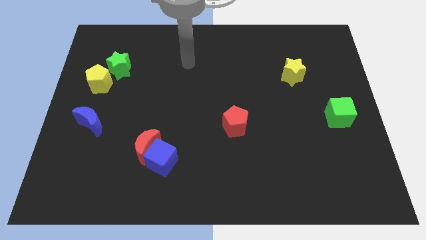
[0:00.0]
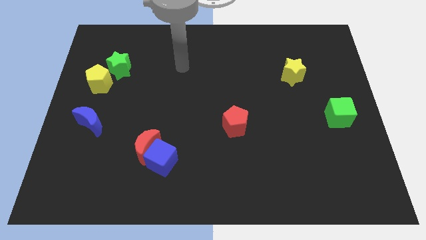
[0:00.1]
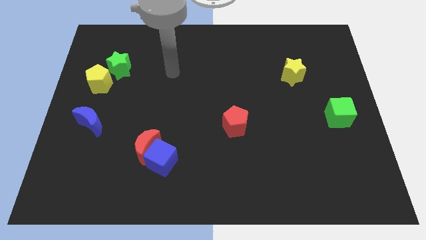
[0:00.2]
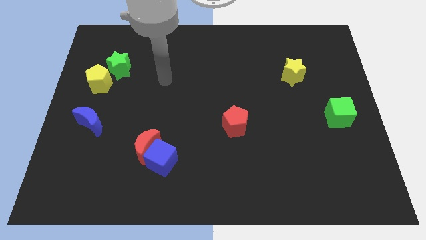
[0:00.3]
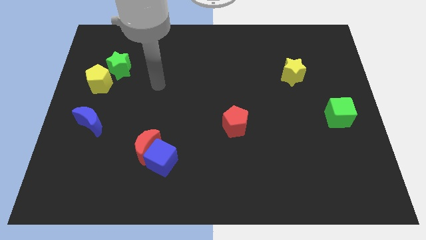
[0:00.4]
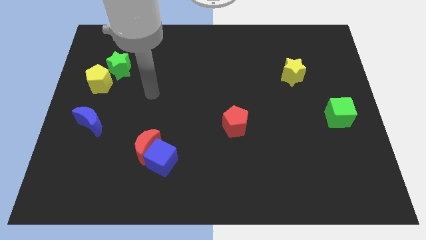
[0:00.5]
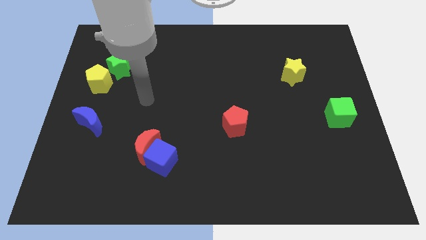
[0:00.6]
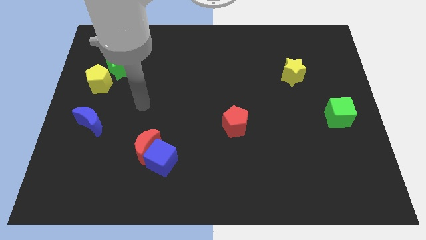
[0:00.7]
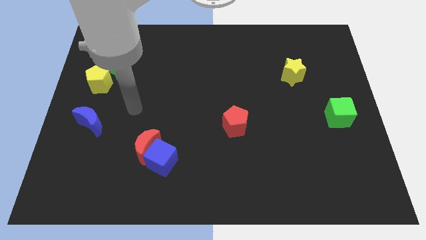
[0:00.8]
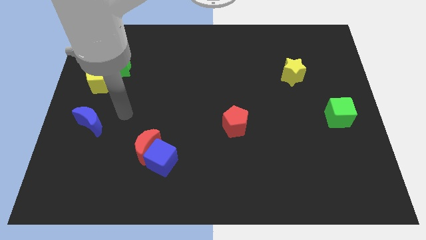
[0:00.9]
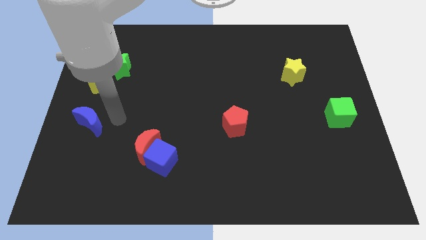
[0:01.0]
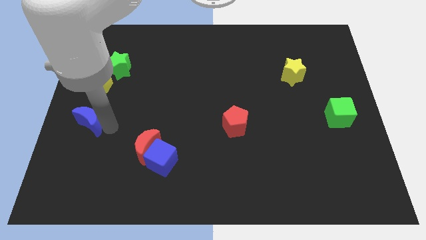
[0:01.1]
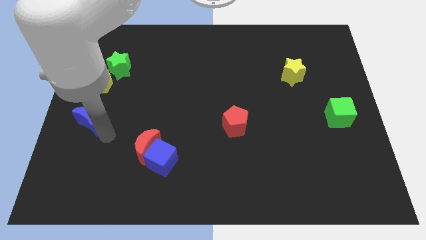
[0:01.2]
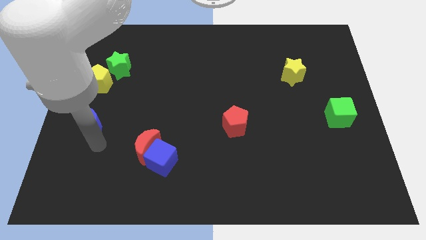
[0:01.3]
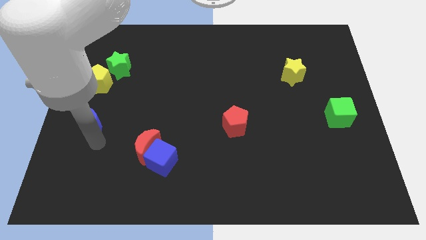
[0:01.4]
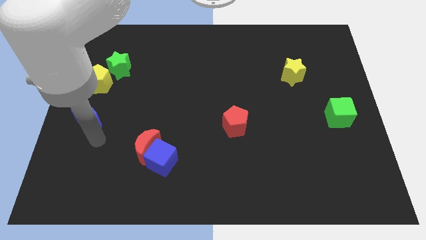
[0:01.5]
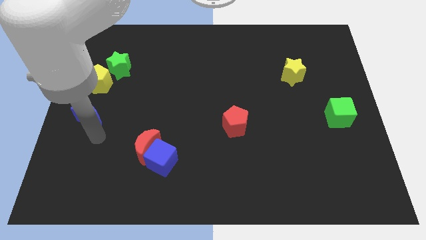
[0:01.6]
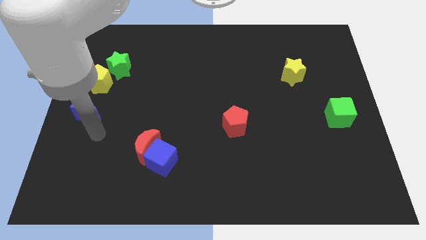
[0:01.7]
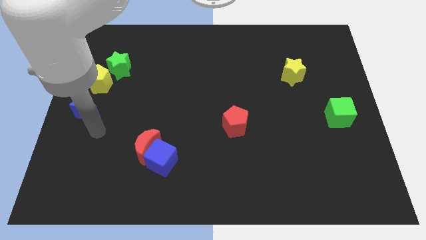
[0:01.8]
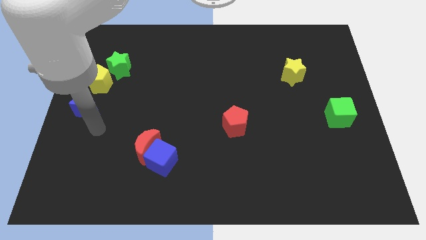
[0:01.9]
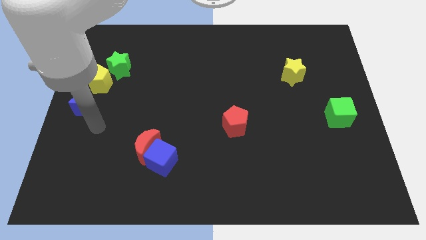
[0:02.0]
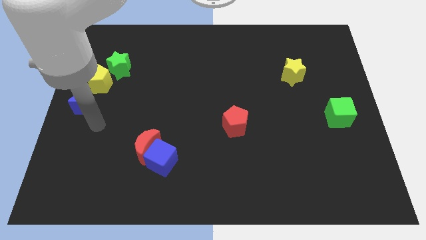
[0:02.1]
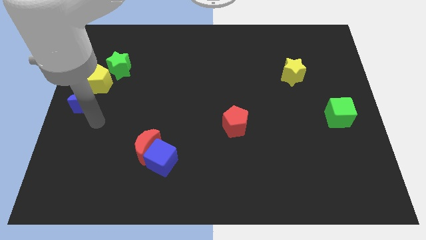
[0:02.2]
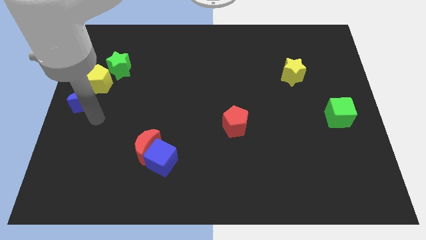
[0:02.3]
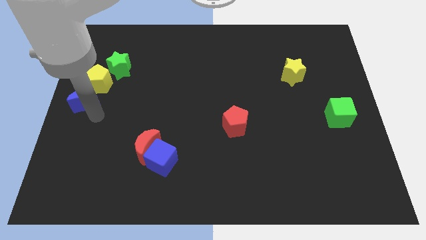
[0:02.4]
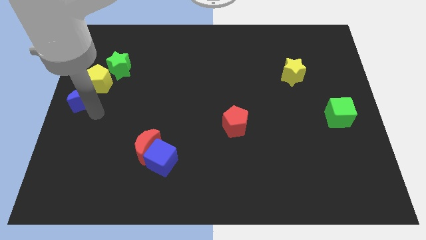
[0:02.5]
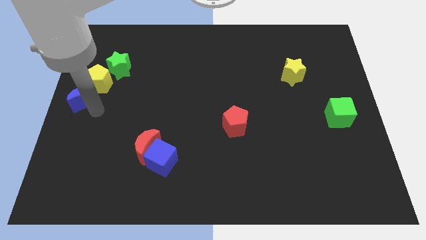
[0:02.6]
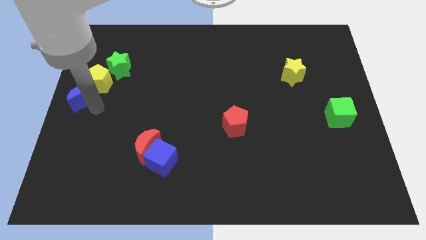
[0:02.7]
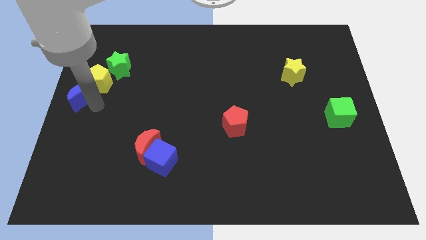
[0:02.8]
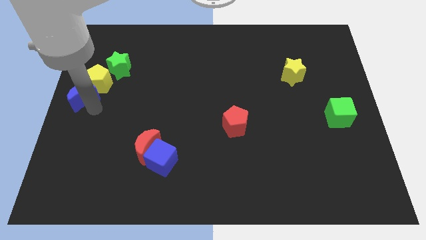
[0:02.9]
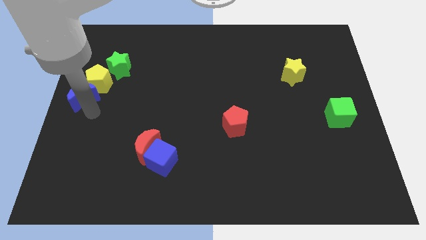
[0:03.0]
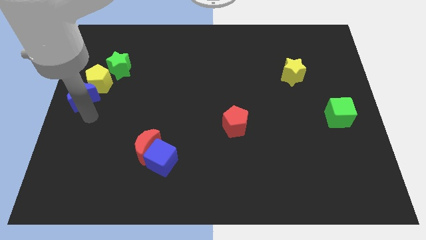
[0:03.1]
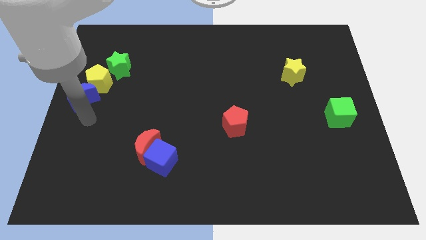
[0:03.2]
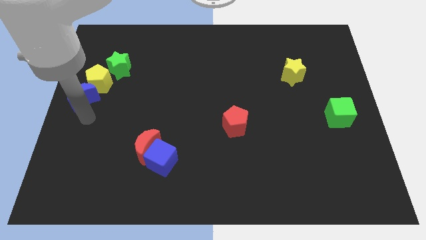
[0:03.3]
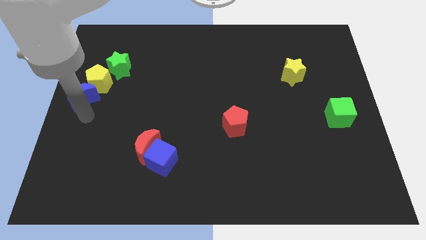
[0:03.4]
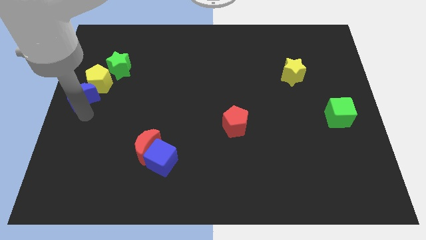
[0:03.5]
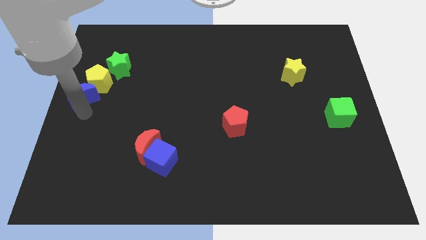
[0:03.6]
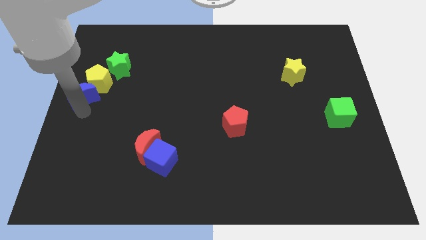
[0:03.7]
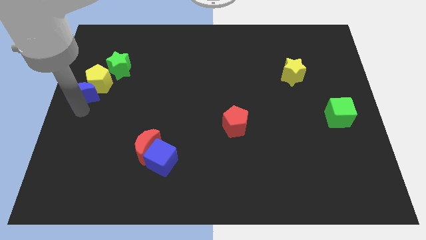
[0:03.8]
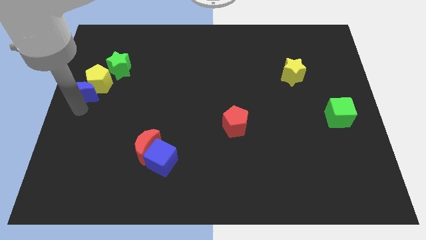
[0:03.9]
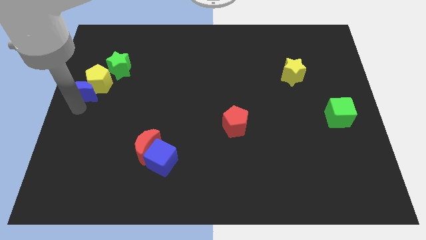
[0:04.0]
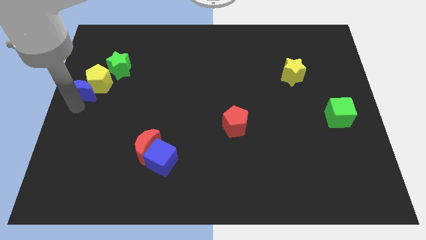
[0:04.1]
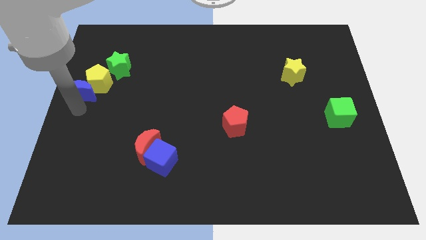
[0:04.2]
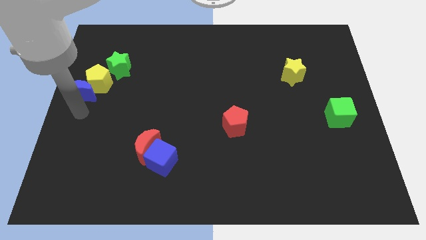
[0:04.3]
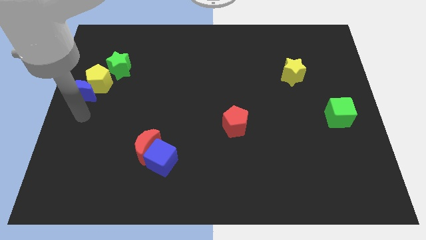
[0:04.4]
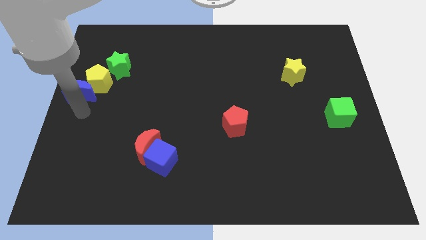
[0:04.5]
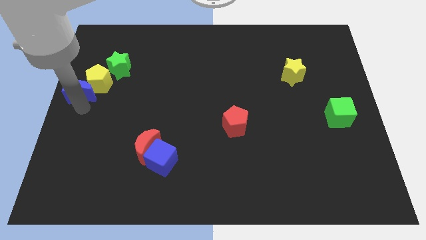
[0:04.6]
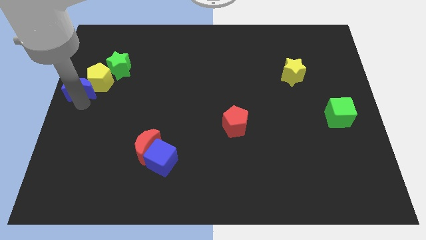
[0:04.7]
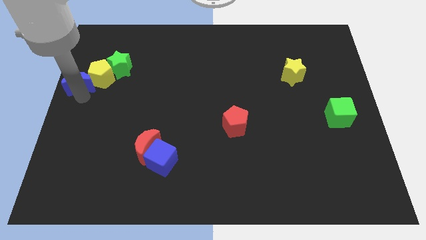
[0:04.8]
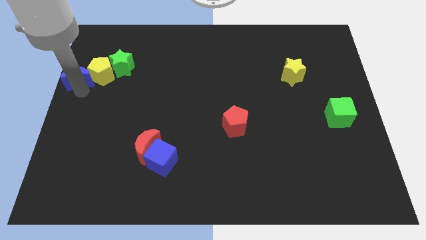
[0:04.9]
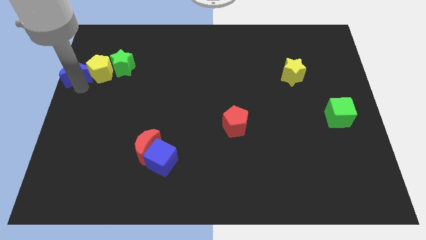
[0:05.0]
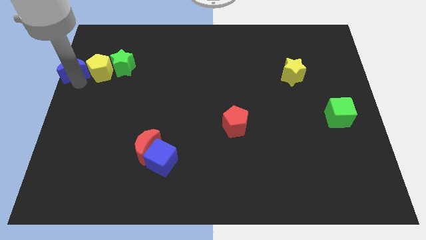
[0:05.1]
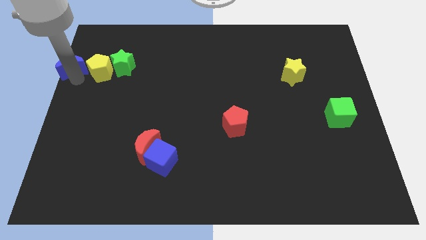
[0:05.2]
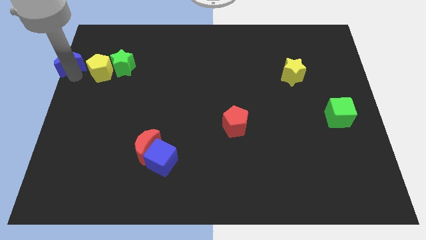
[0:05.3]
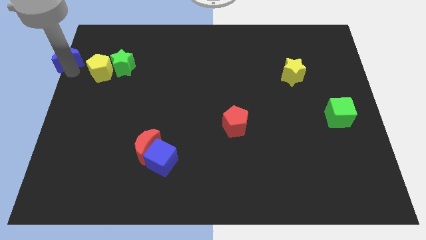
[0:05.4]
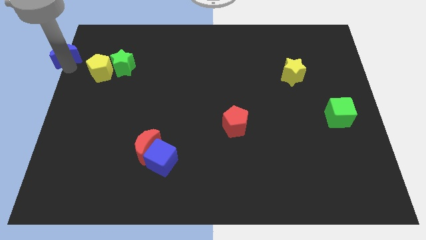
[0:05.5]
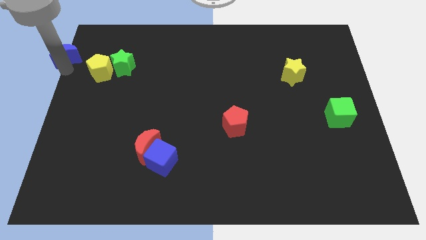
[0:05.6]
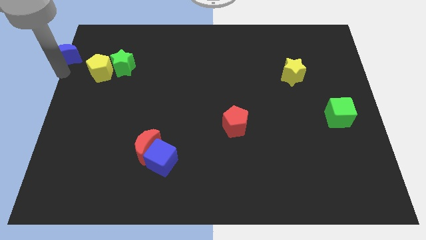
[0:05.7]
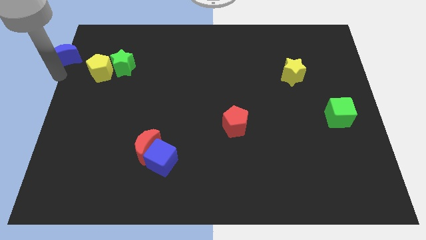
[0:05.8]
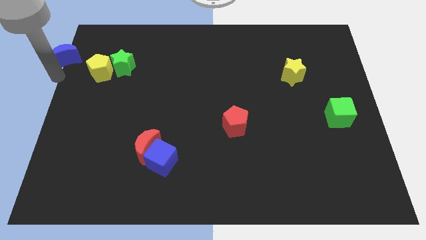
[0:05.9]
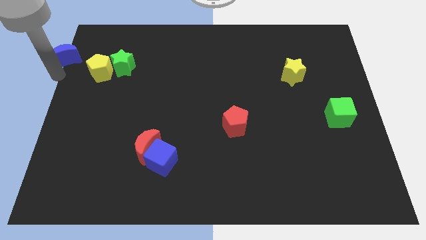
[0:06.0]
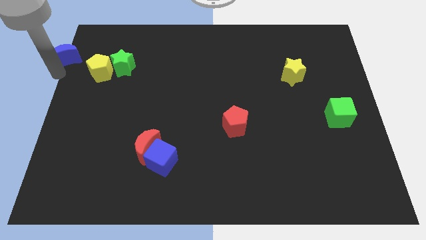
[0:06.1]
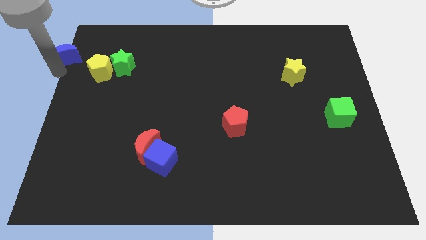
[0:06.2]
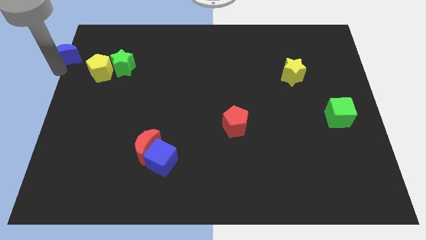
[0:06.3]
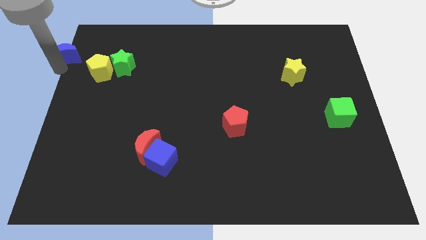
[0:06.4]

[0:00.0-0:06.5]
move the blue moon to the top left corner
